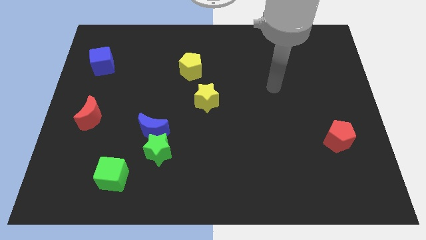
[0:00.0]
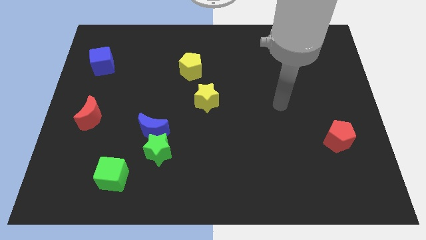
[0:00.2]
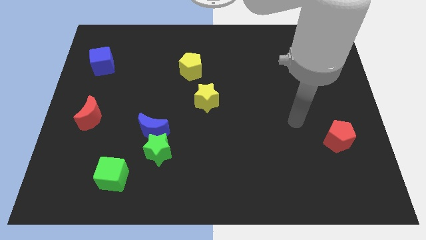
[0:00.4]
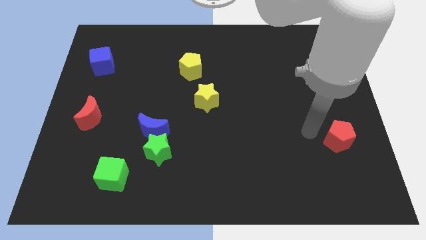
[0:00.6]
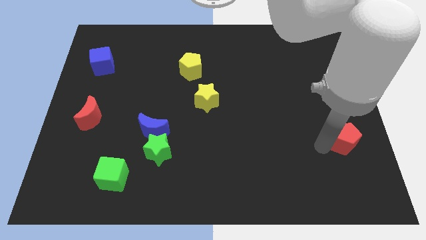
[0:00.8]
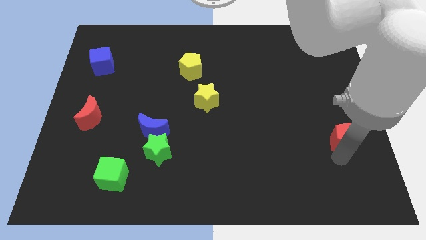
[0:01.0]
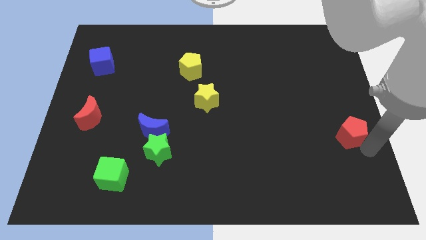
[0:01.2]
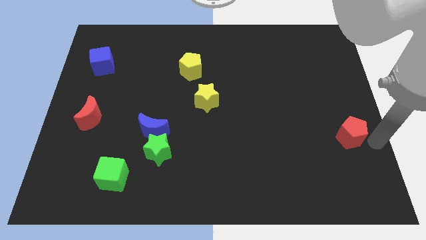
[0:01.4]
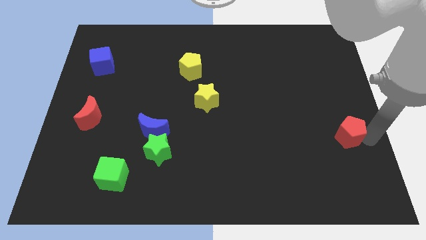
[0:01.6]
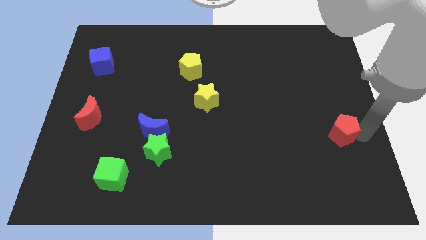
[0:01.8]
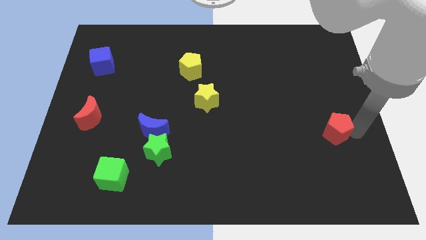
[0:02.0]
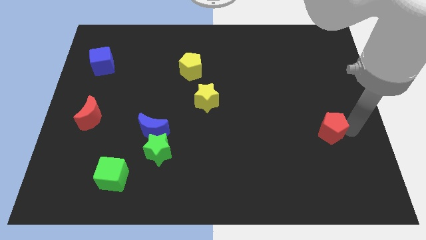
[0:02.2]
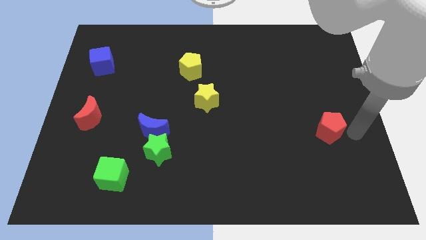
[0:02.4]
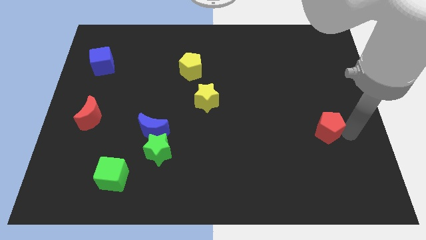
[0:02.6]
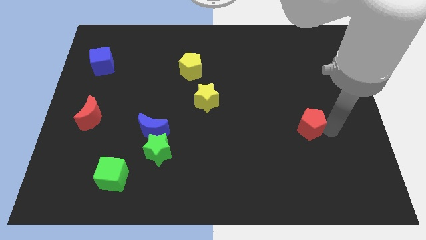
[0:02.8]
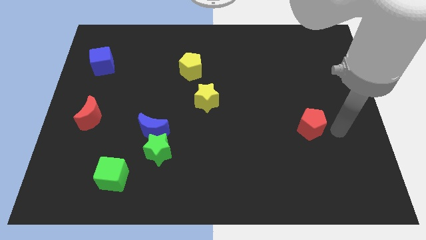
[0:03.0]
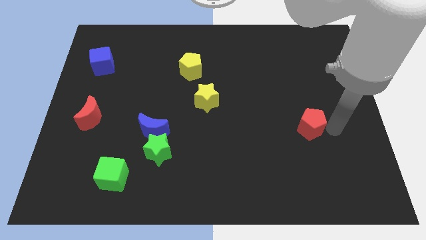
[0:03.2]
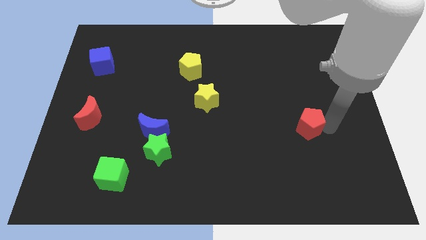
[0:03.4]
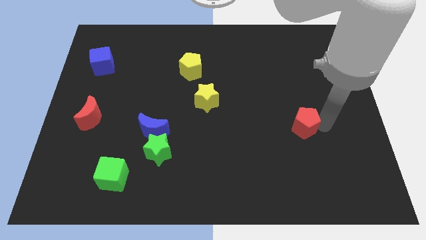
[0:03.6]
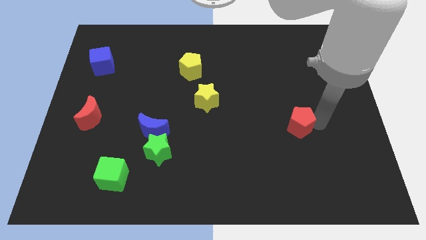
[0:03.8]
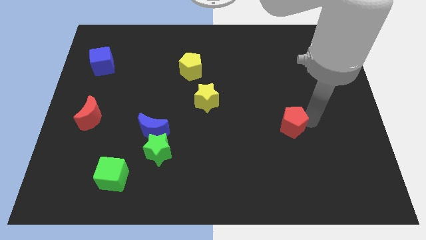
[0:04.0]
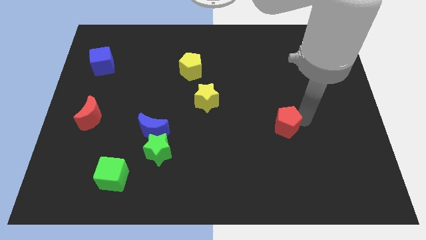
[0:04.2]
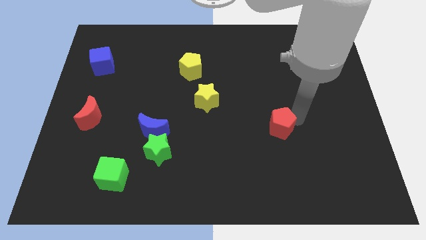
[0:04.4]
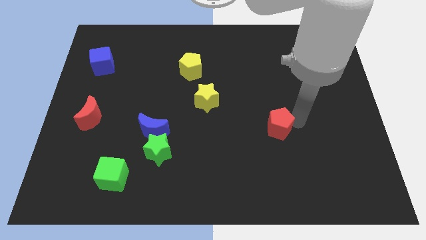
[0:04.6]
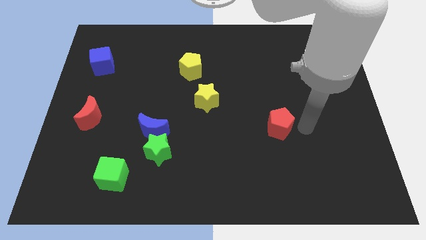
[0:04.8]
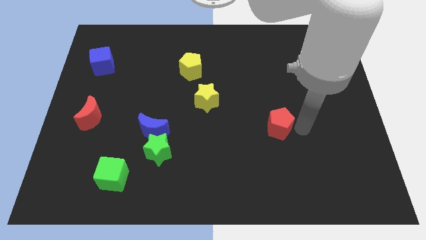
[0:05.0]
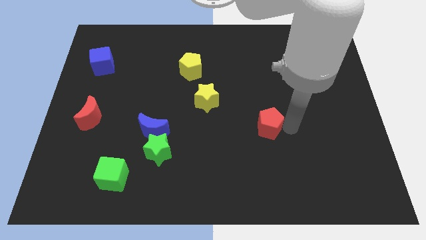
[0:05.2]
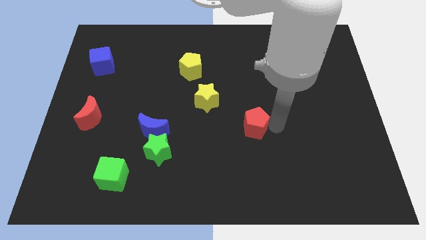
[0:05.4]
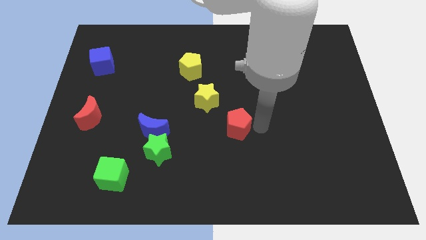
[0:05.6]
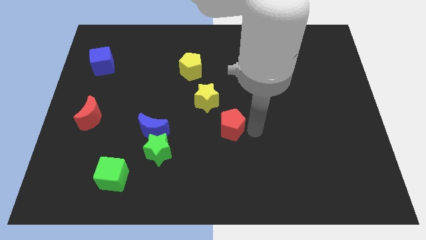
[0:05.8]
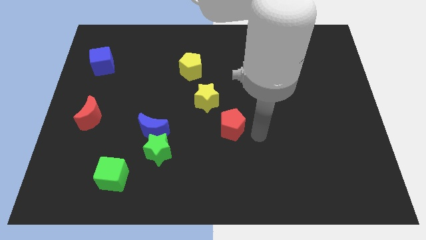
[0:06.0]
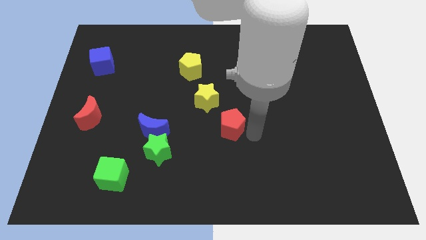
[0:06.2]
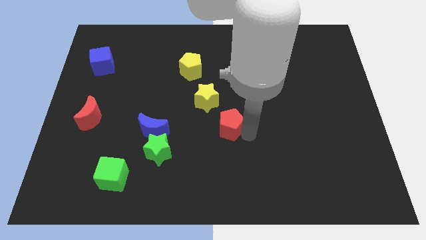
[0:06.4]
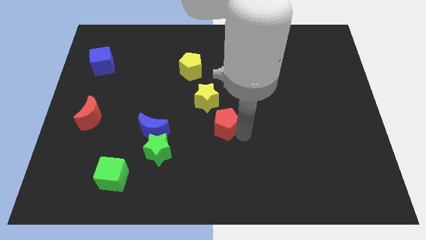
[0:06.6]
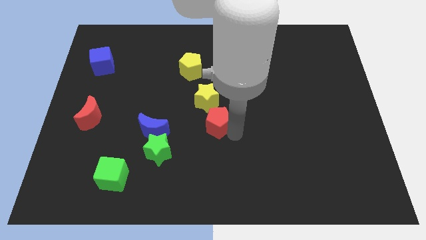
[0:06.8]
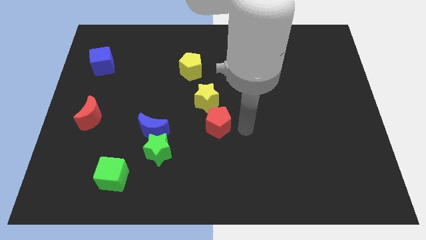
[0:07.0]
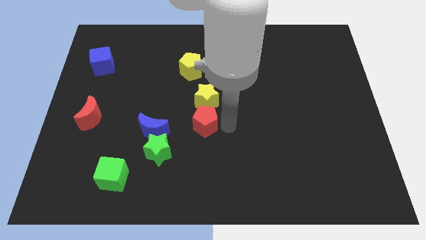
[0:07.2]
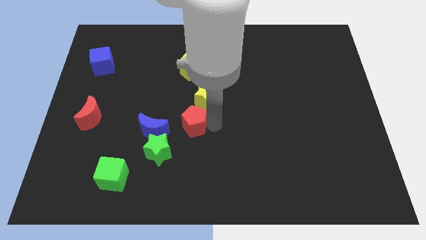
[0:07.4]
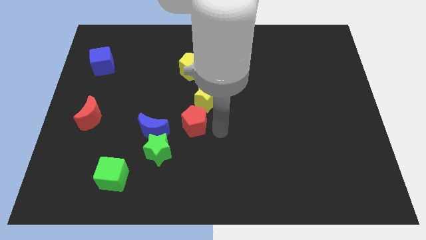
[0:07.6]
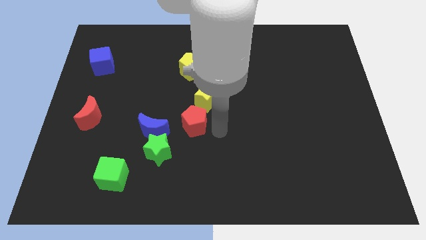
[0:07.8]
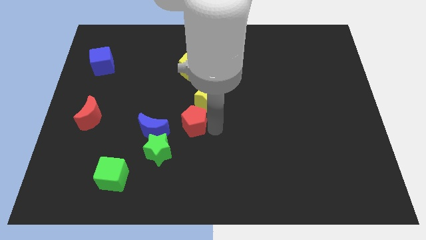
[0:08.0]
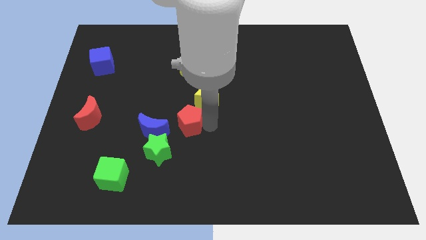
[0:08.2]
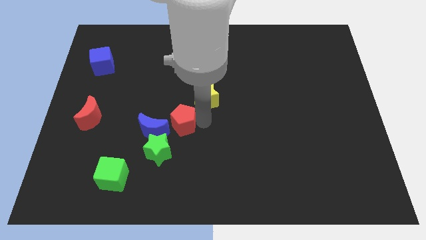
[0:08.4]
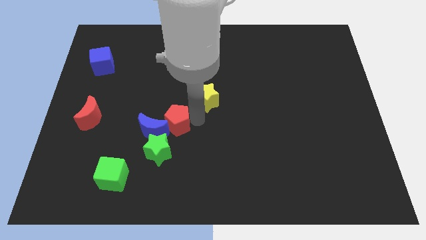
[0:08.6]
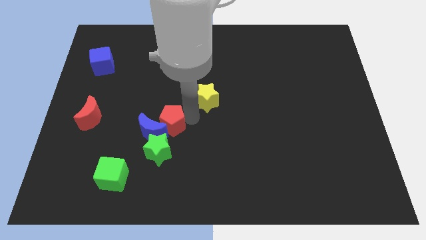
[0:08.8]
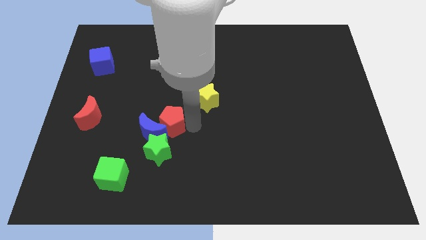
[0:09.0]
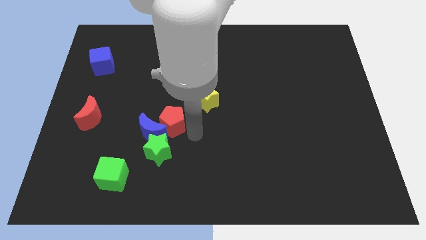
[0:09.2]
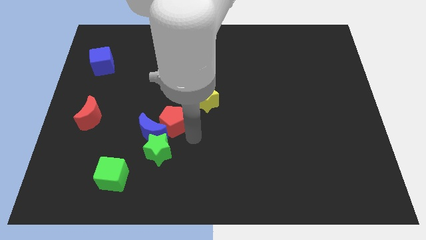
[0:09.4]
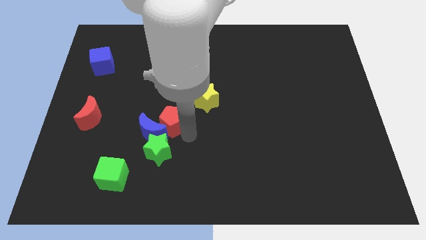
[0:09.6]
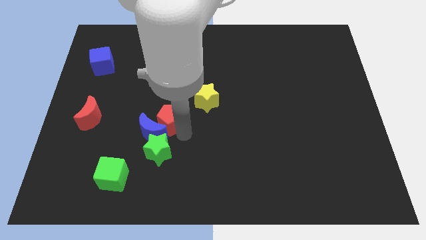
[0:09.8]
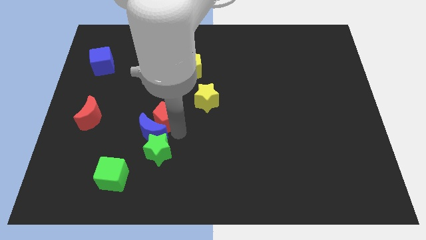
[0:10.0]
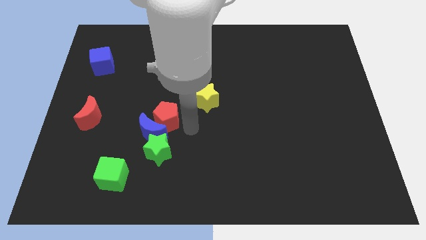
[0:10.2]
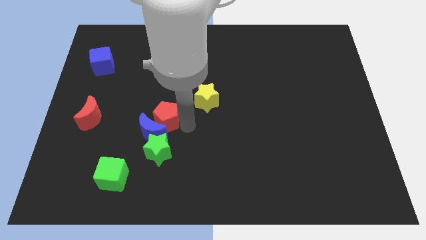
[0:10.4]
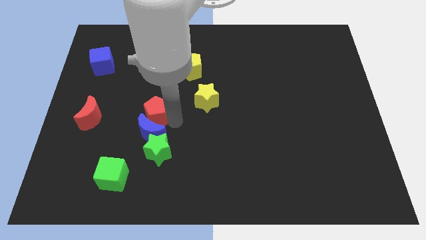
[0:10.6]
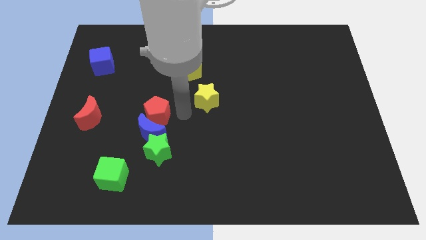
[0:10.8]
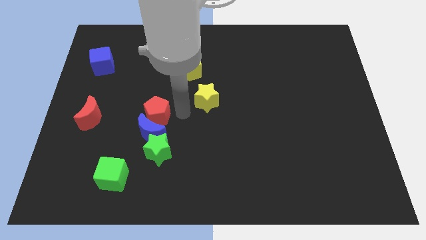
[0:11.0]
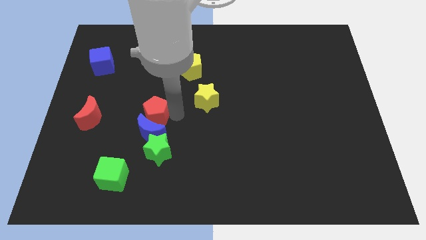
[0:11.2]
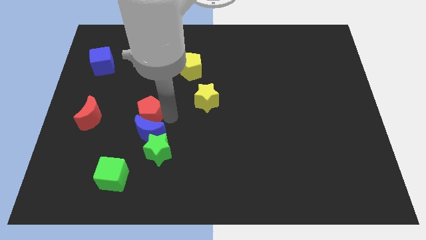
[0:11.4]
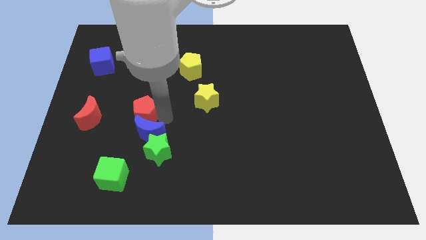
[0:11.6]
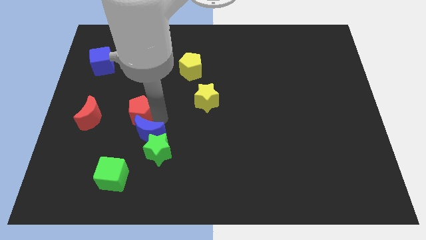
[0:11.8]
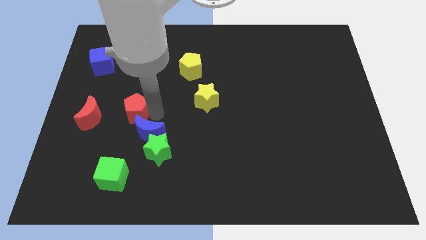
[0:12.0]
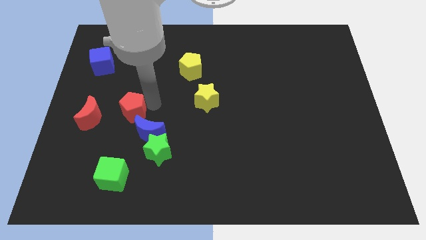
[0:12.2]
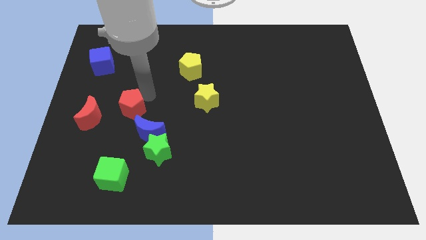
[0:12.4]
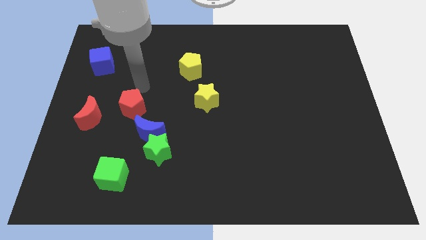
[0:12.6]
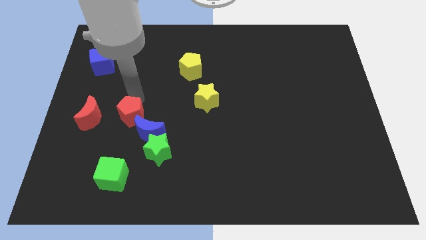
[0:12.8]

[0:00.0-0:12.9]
move the red pentagon to the top side of the green cube

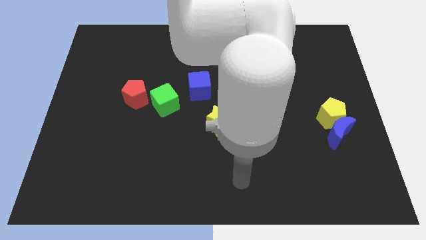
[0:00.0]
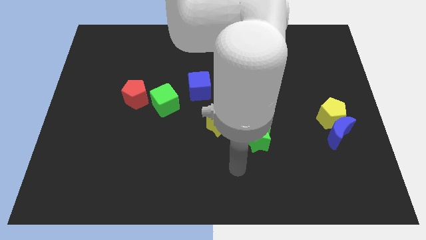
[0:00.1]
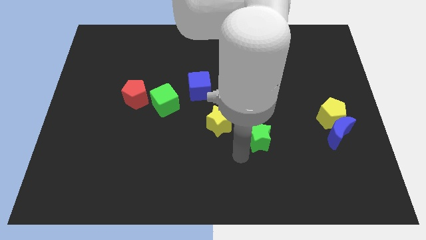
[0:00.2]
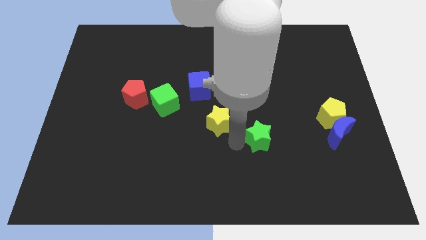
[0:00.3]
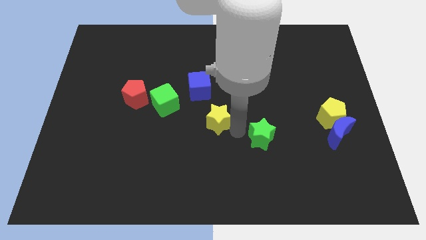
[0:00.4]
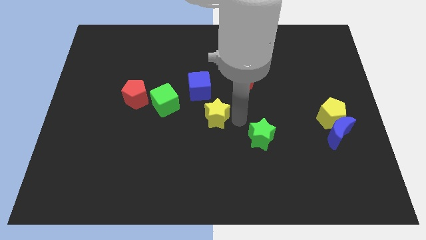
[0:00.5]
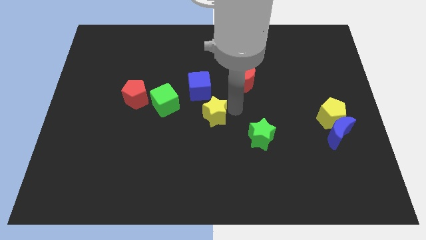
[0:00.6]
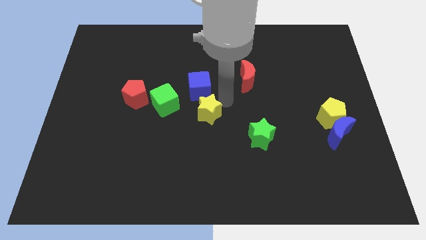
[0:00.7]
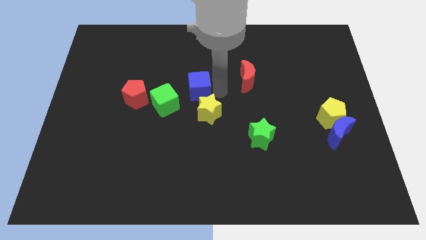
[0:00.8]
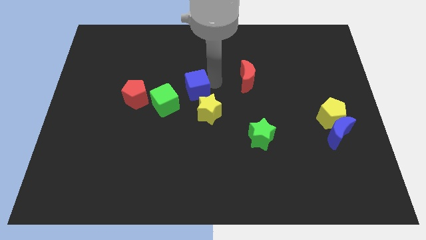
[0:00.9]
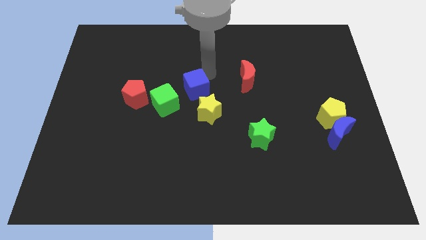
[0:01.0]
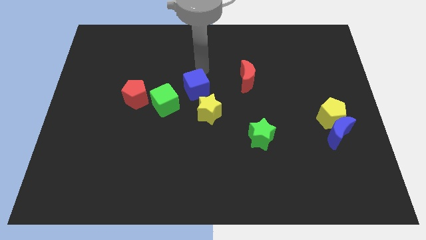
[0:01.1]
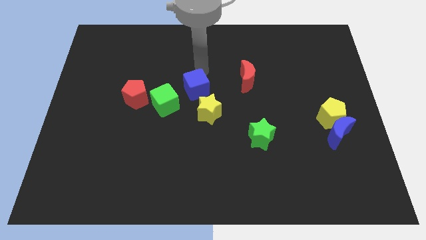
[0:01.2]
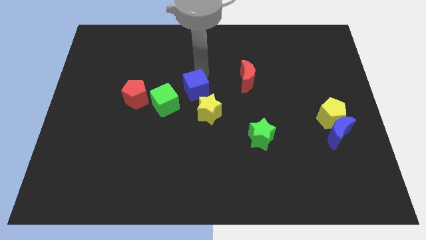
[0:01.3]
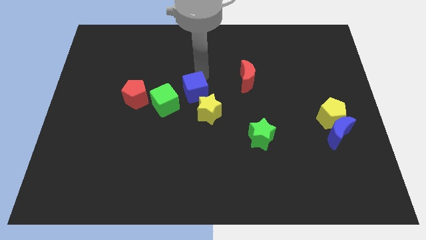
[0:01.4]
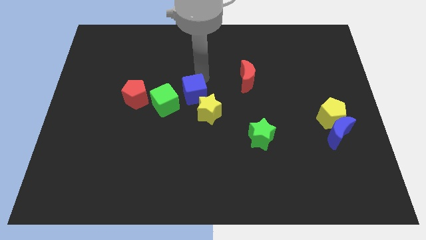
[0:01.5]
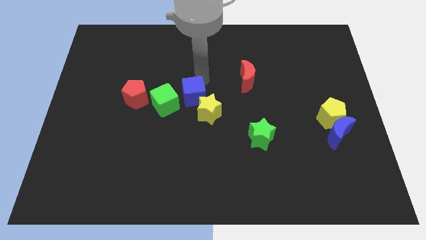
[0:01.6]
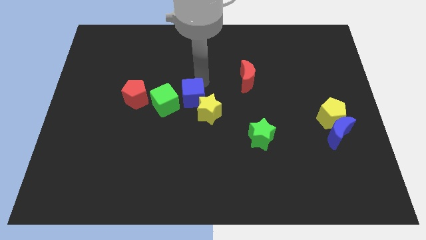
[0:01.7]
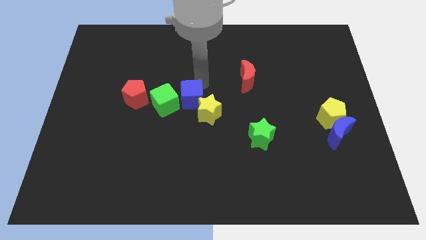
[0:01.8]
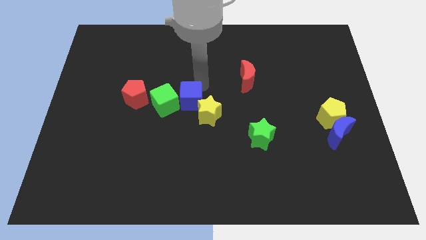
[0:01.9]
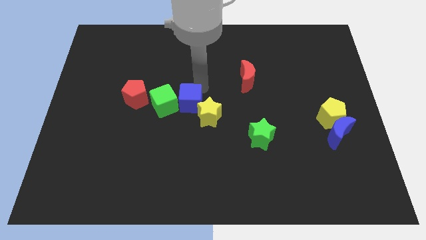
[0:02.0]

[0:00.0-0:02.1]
slide the blue cube to the bottom right of the green cube
